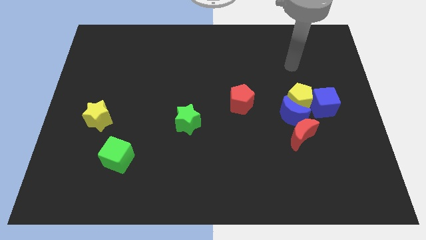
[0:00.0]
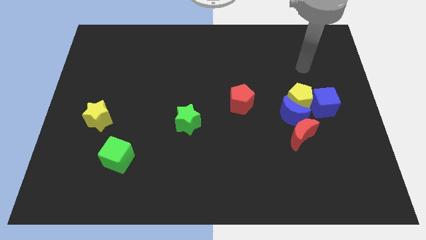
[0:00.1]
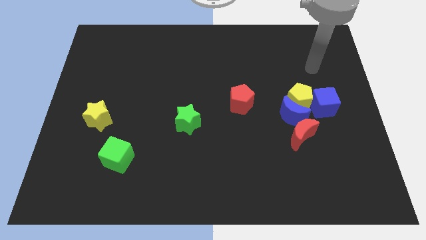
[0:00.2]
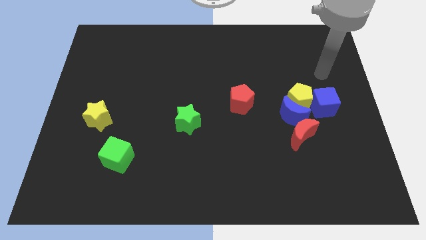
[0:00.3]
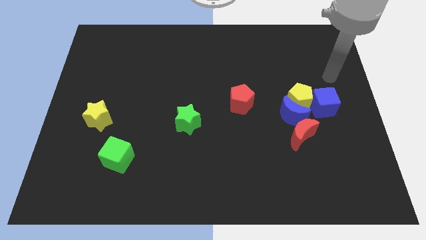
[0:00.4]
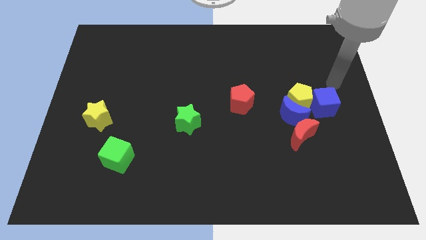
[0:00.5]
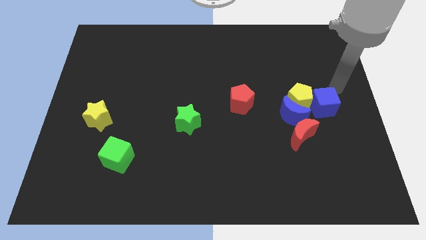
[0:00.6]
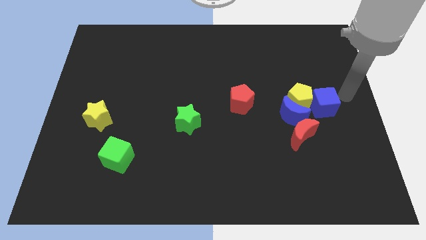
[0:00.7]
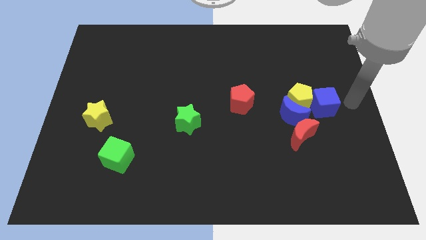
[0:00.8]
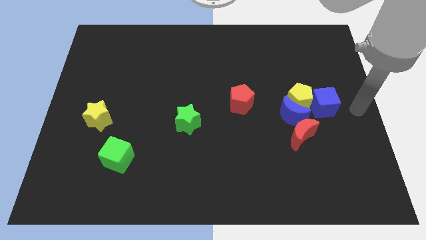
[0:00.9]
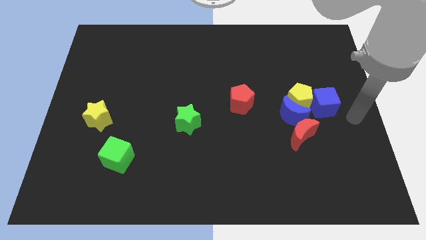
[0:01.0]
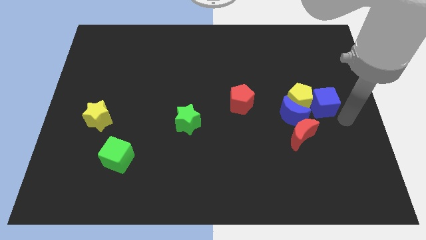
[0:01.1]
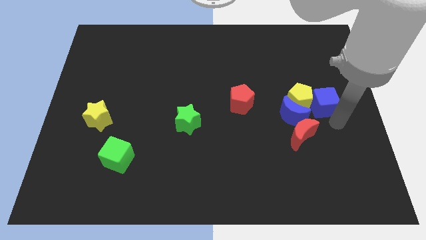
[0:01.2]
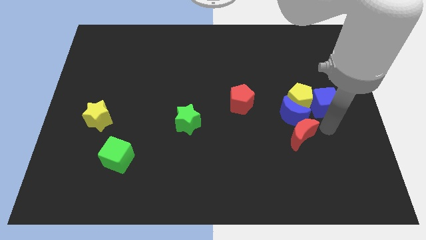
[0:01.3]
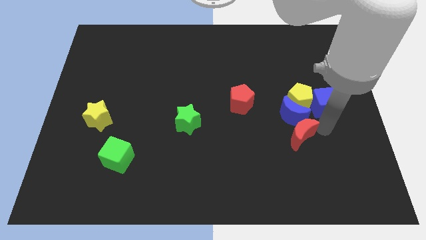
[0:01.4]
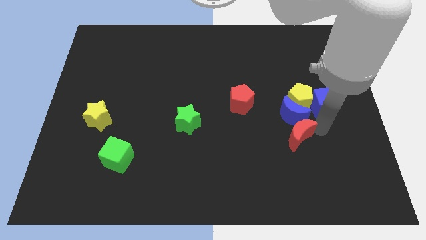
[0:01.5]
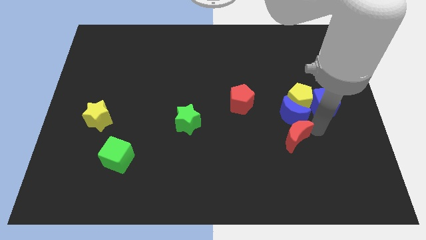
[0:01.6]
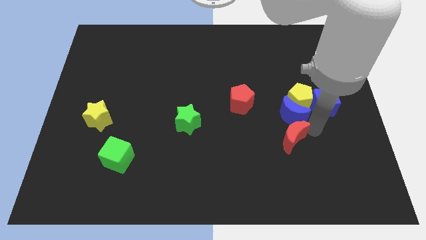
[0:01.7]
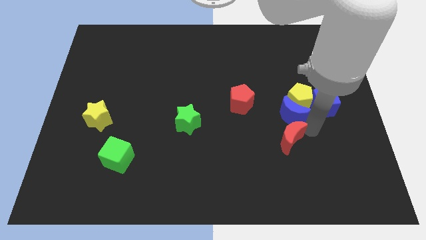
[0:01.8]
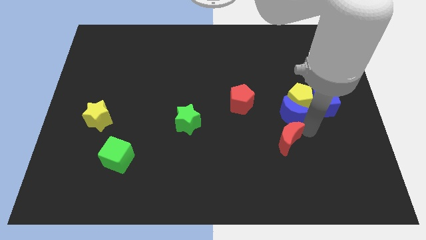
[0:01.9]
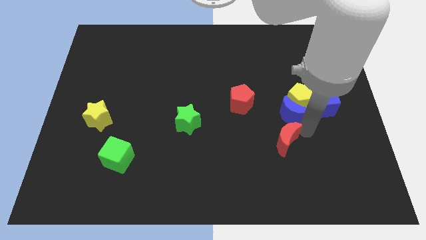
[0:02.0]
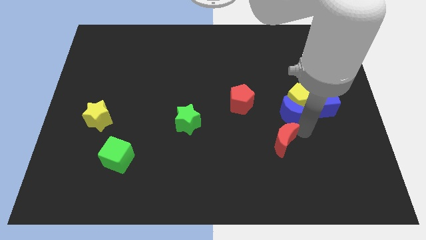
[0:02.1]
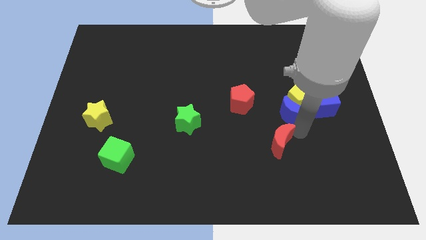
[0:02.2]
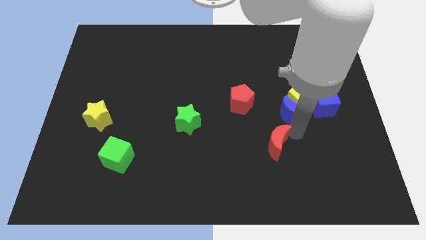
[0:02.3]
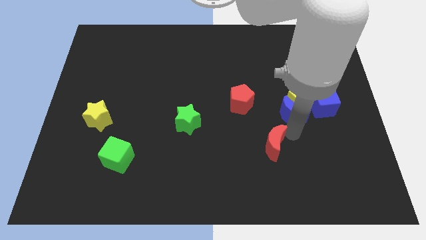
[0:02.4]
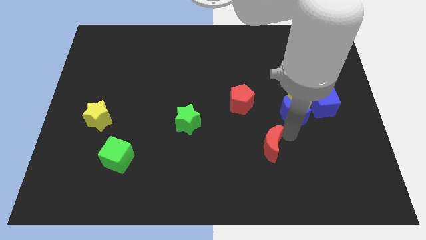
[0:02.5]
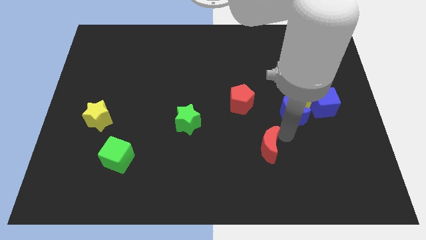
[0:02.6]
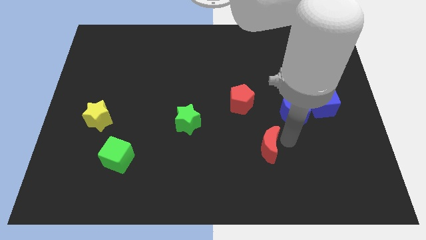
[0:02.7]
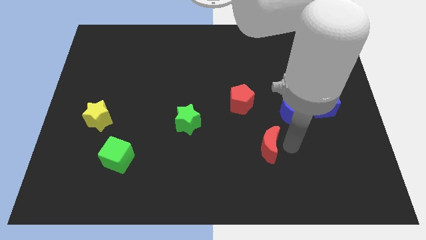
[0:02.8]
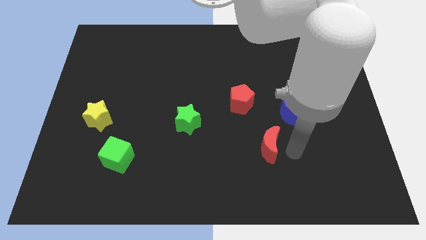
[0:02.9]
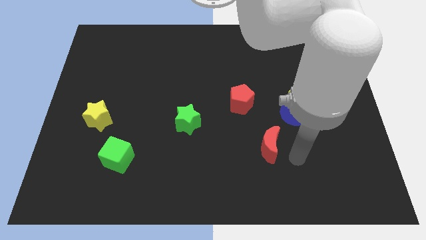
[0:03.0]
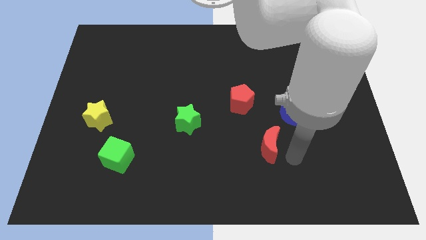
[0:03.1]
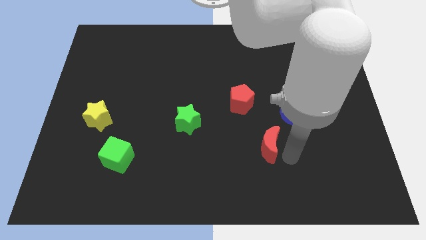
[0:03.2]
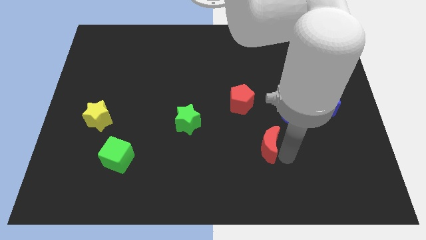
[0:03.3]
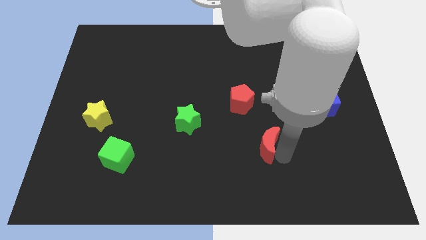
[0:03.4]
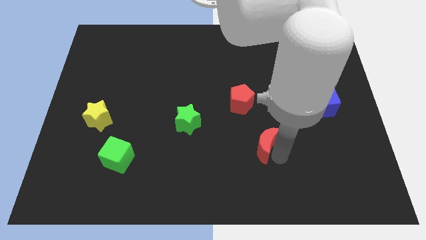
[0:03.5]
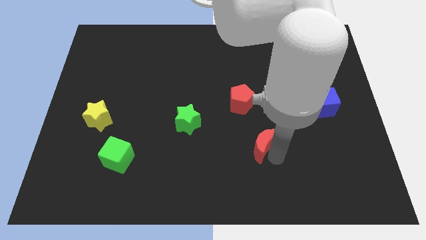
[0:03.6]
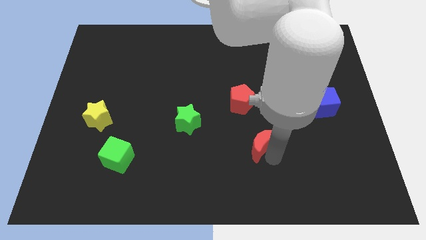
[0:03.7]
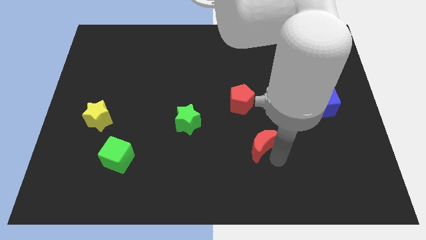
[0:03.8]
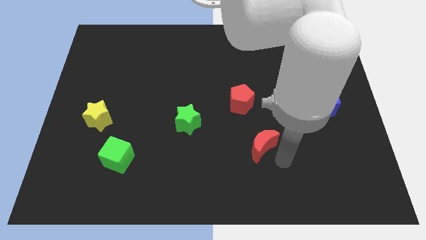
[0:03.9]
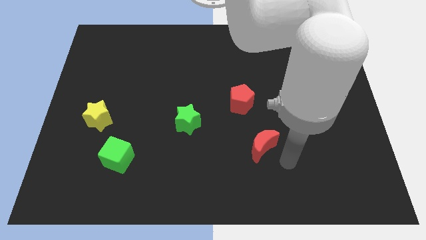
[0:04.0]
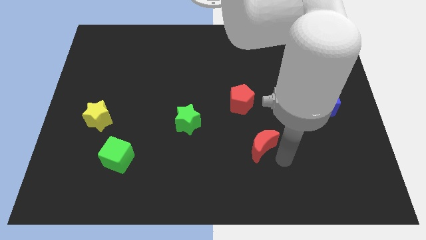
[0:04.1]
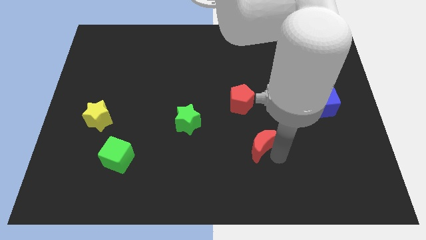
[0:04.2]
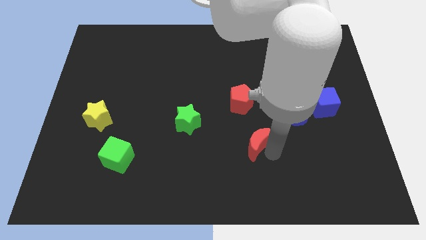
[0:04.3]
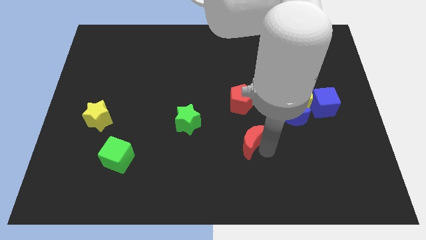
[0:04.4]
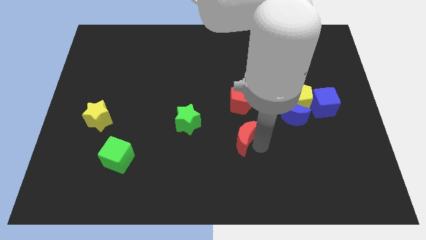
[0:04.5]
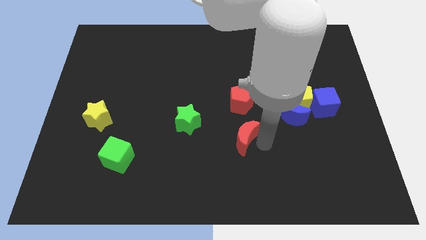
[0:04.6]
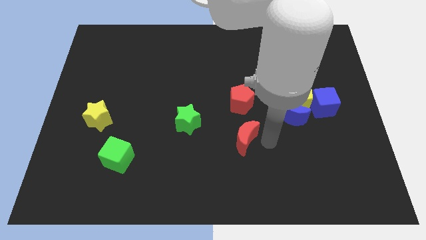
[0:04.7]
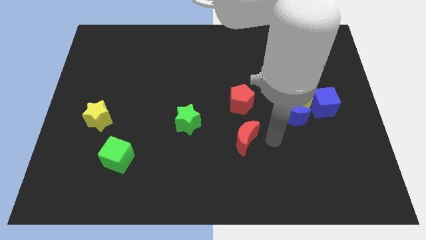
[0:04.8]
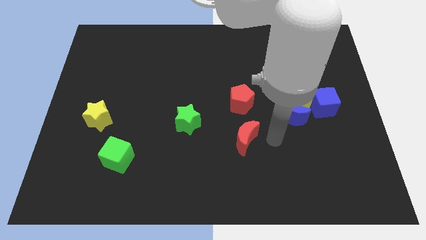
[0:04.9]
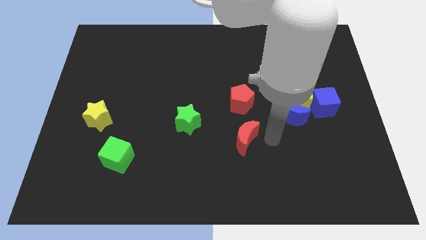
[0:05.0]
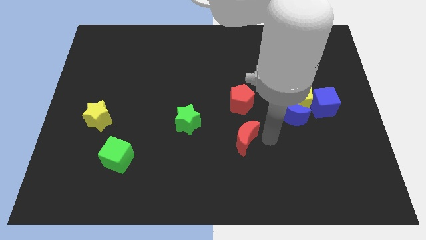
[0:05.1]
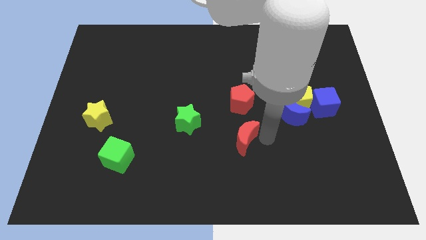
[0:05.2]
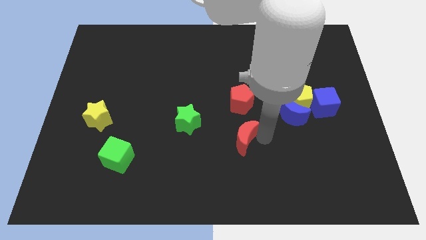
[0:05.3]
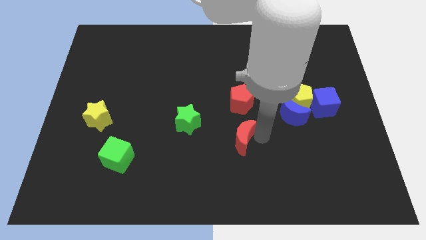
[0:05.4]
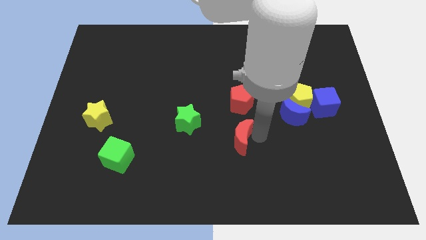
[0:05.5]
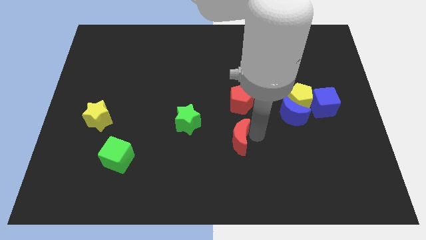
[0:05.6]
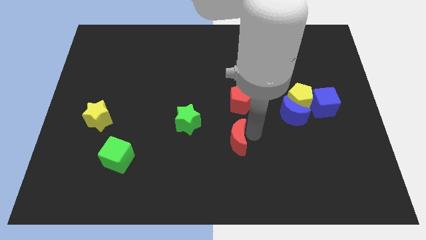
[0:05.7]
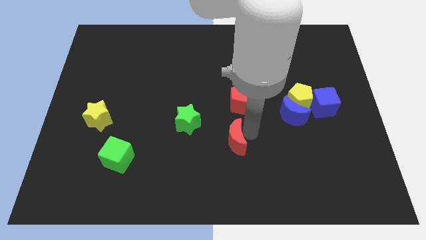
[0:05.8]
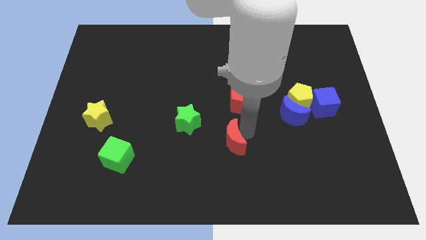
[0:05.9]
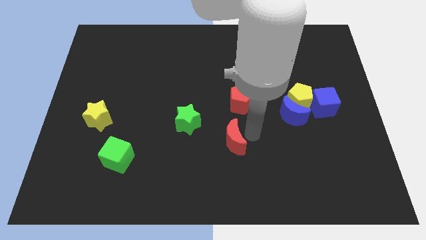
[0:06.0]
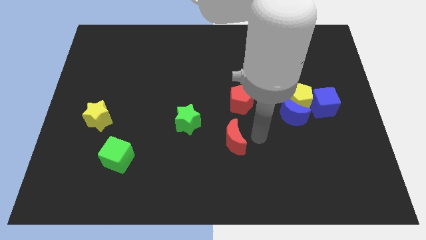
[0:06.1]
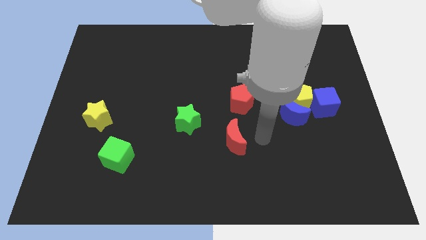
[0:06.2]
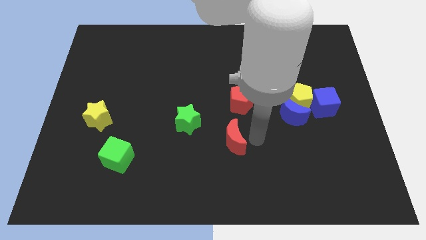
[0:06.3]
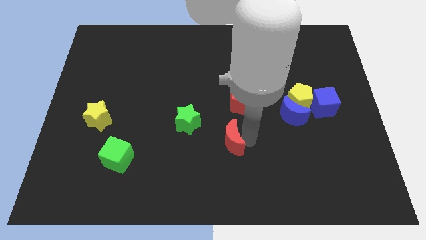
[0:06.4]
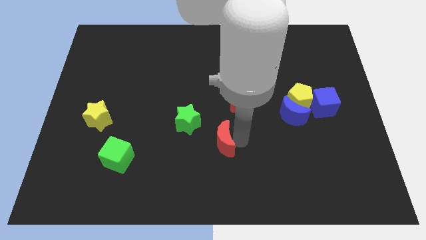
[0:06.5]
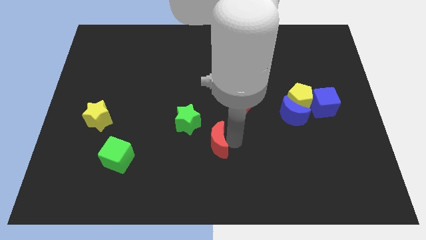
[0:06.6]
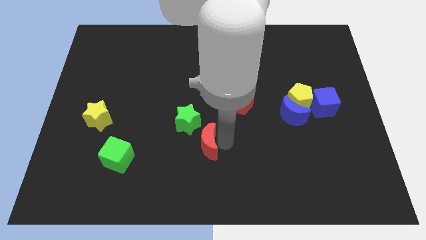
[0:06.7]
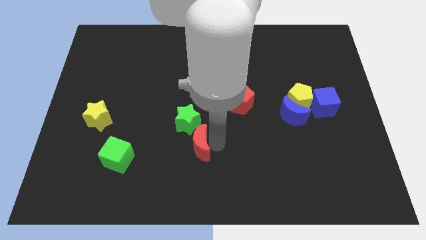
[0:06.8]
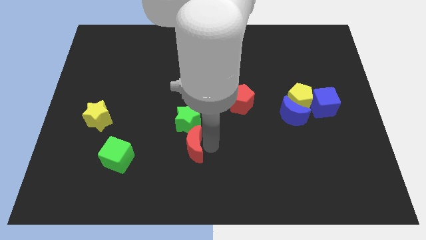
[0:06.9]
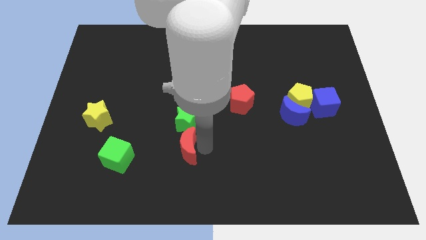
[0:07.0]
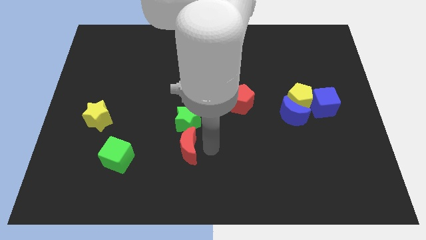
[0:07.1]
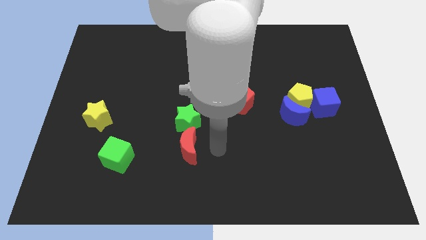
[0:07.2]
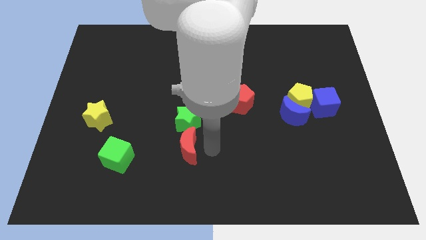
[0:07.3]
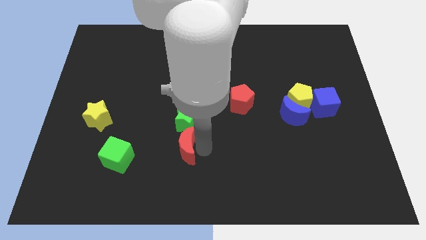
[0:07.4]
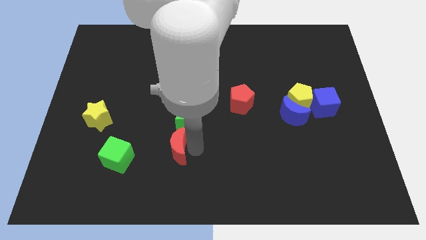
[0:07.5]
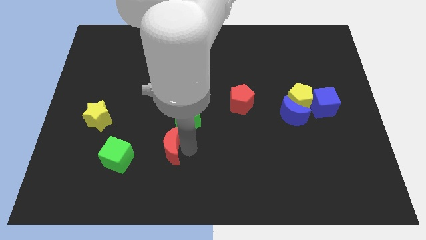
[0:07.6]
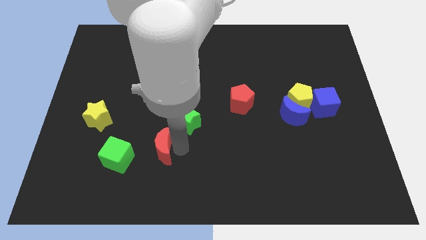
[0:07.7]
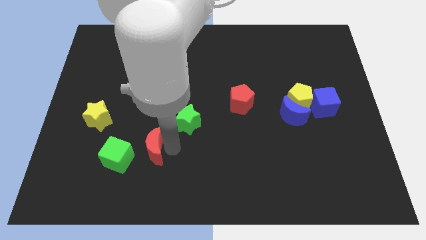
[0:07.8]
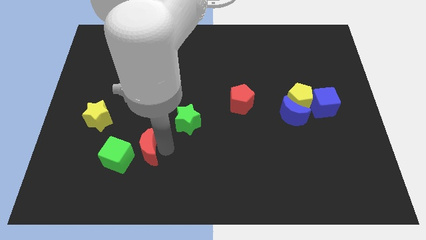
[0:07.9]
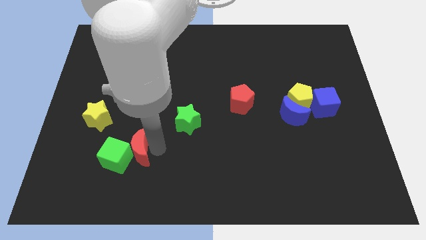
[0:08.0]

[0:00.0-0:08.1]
push the red moon next to the green cube
